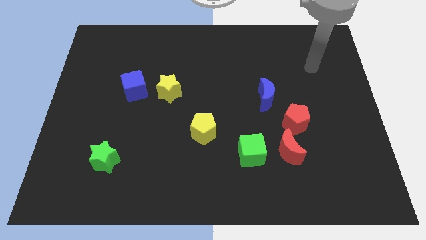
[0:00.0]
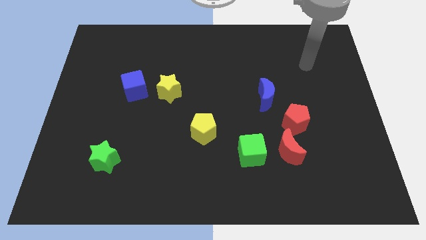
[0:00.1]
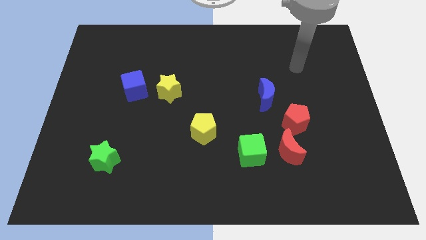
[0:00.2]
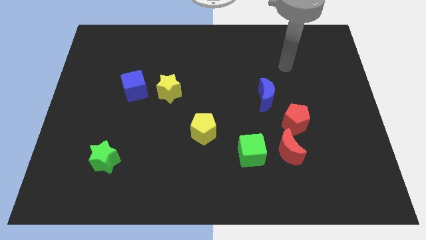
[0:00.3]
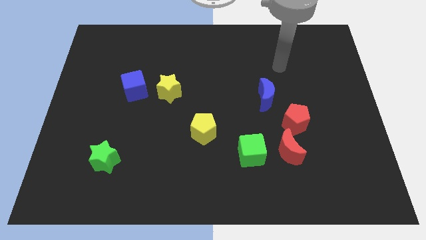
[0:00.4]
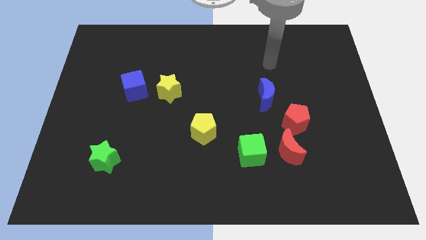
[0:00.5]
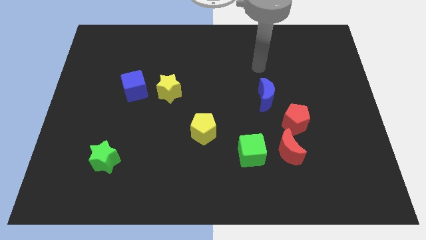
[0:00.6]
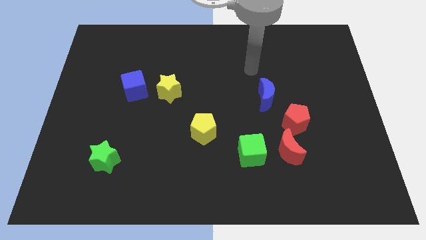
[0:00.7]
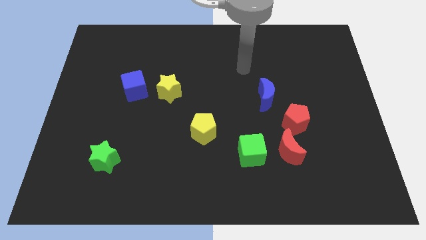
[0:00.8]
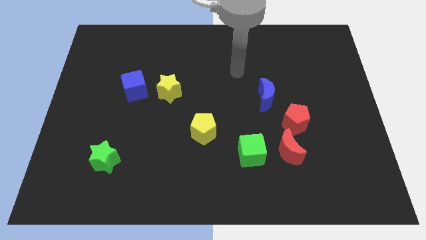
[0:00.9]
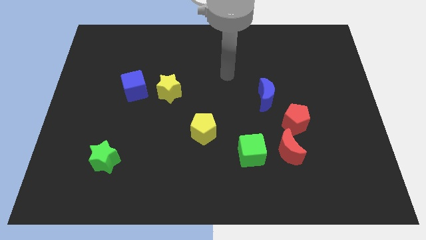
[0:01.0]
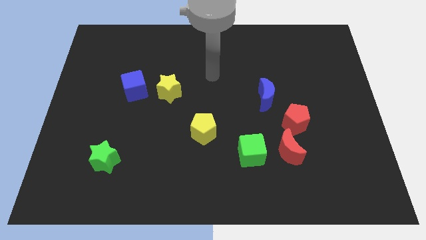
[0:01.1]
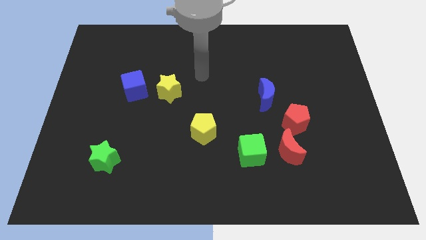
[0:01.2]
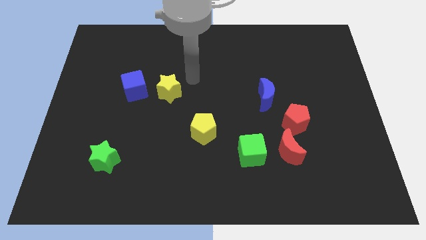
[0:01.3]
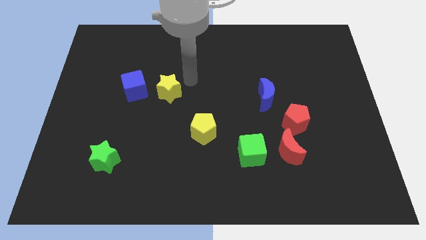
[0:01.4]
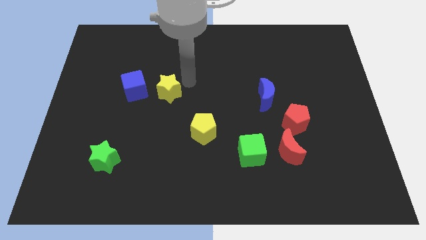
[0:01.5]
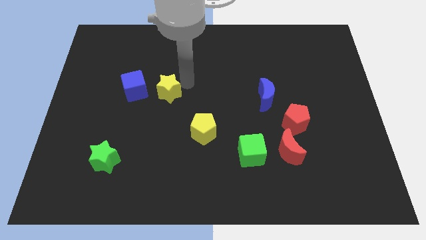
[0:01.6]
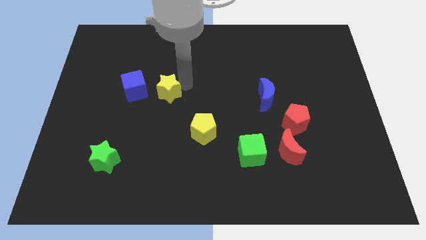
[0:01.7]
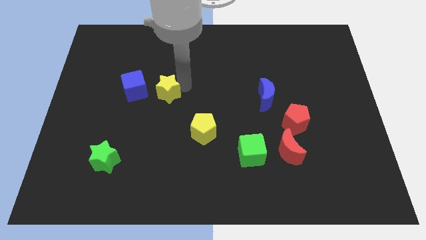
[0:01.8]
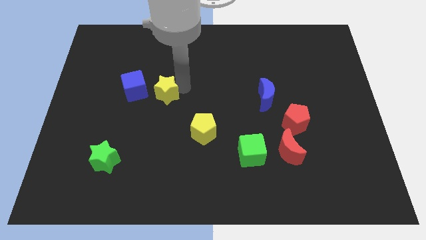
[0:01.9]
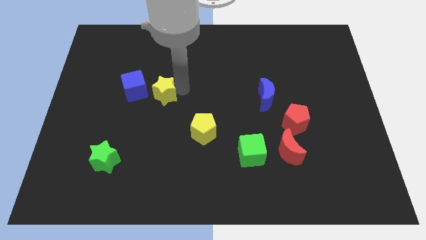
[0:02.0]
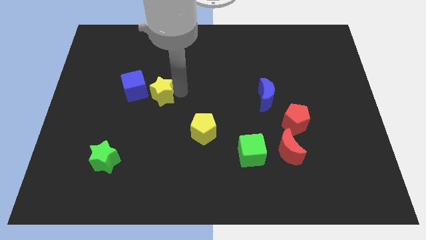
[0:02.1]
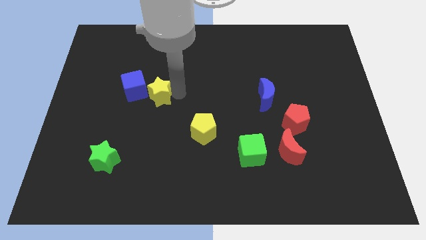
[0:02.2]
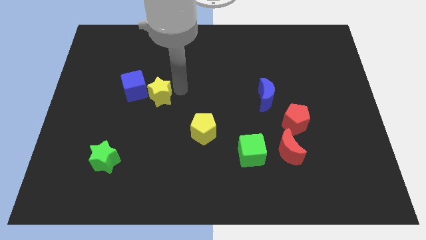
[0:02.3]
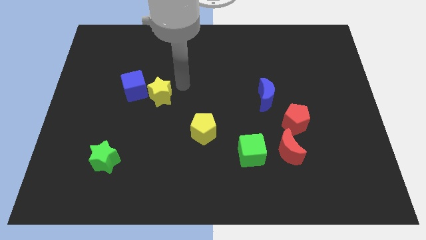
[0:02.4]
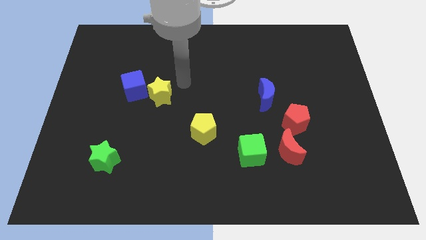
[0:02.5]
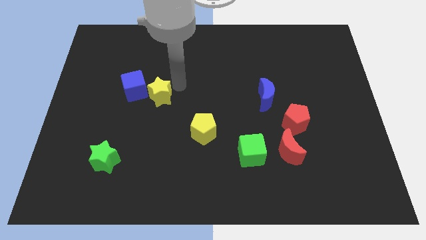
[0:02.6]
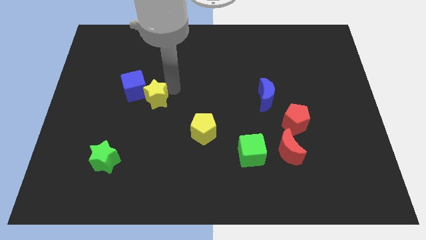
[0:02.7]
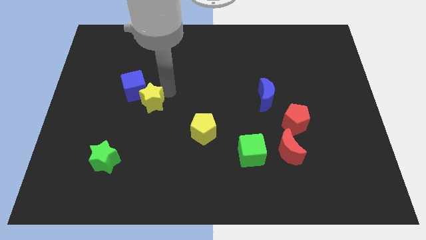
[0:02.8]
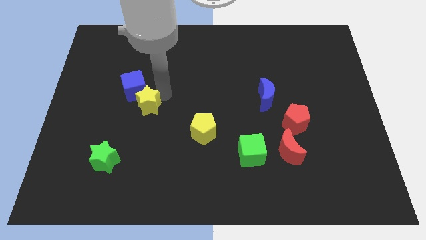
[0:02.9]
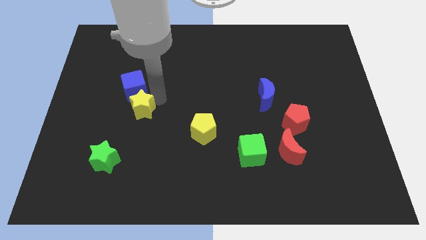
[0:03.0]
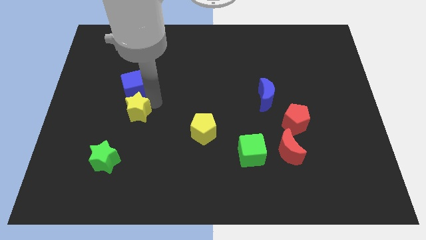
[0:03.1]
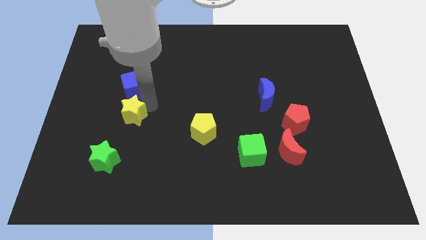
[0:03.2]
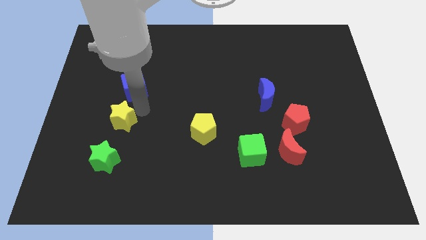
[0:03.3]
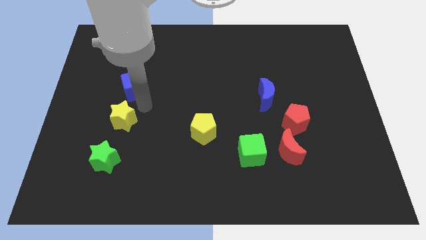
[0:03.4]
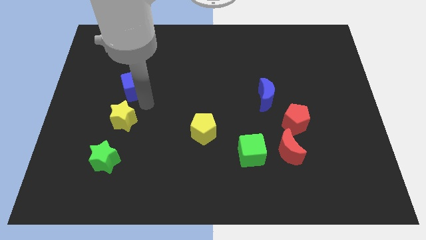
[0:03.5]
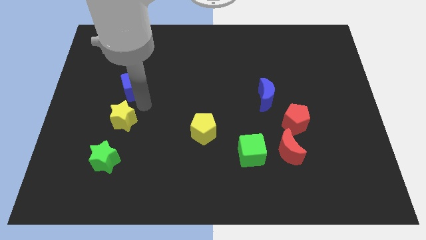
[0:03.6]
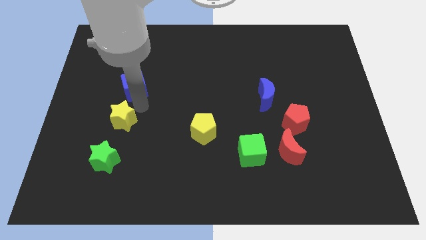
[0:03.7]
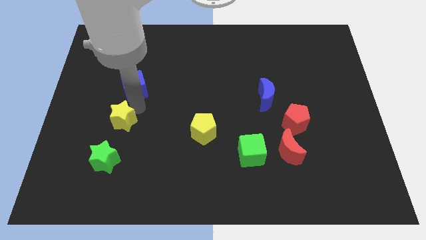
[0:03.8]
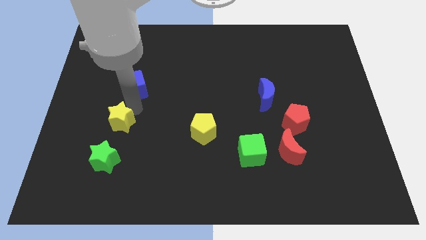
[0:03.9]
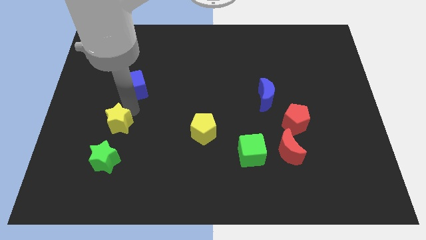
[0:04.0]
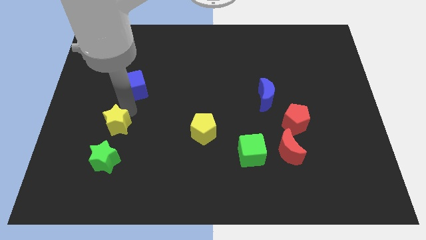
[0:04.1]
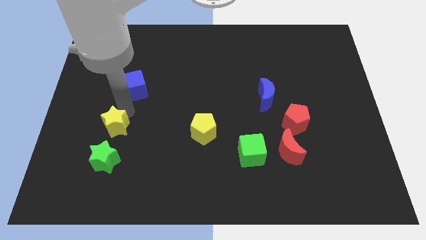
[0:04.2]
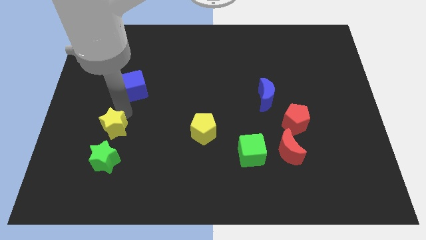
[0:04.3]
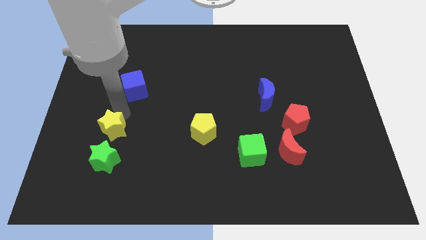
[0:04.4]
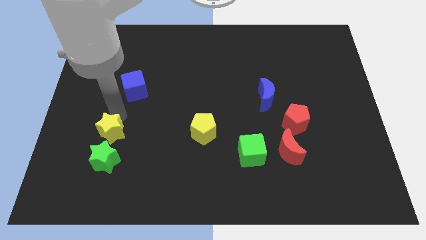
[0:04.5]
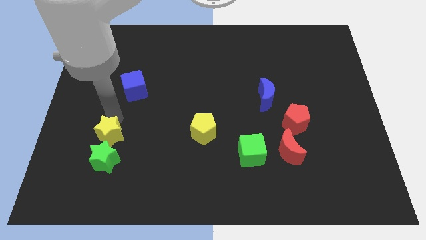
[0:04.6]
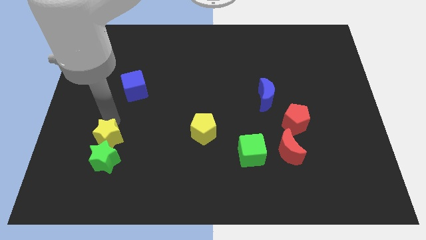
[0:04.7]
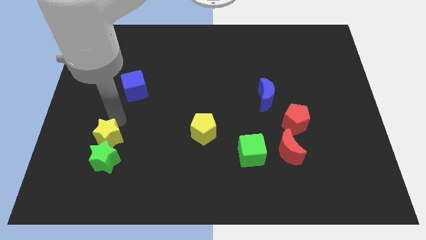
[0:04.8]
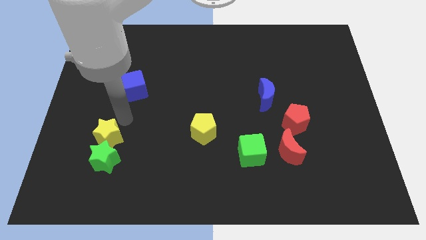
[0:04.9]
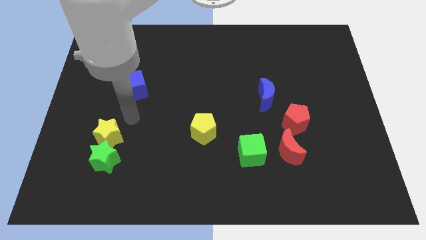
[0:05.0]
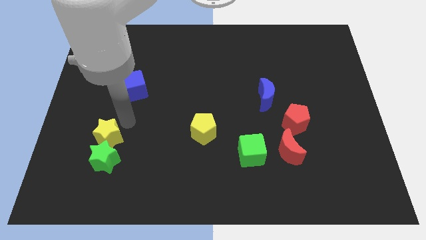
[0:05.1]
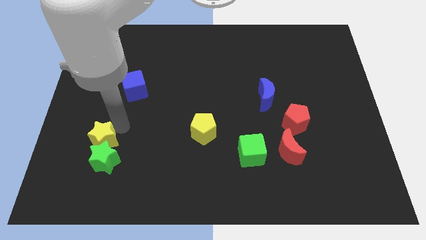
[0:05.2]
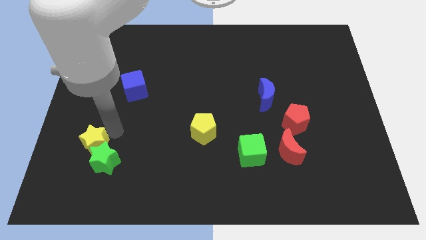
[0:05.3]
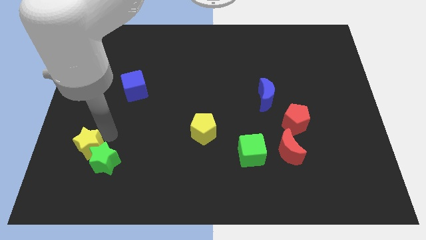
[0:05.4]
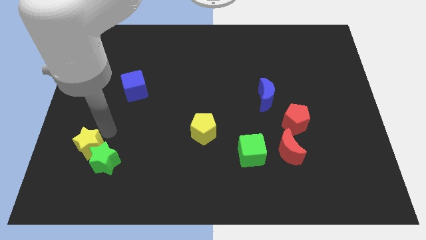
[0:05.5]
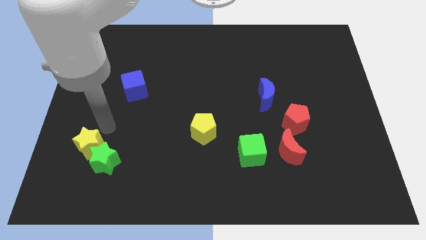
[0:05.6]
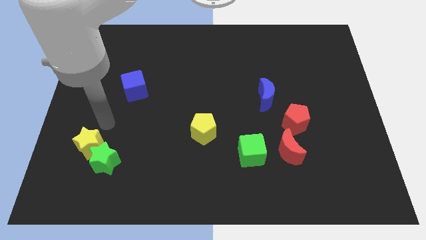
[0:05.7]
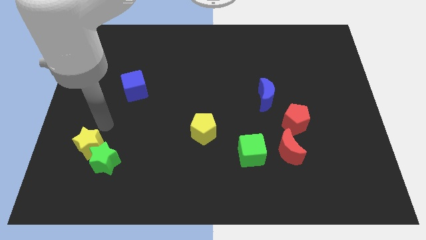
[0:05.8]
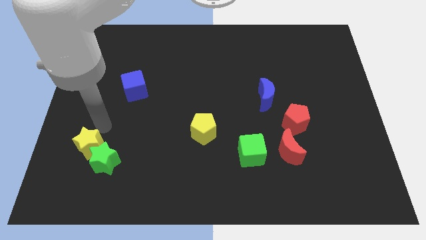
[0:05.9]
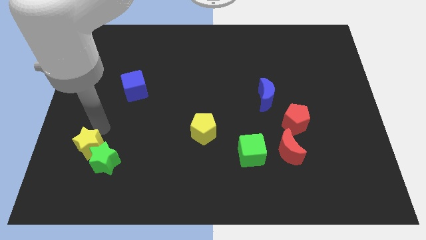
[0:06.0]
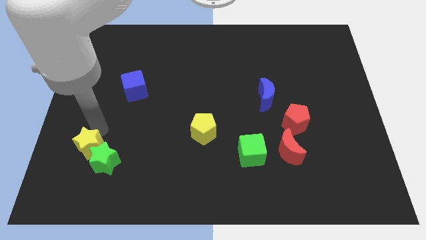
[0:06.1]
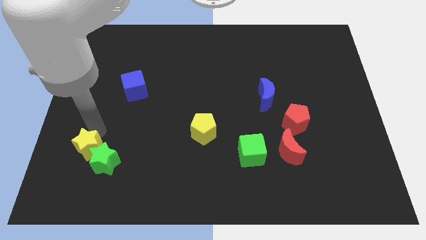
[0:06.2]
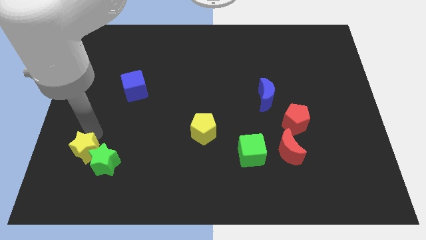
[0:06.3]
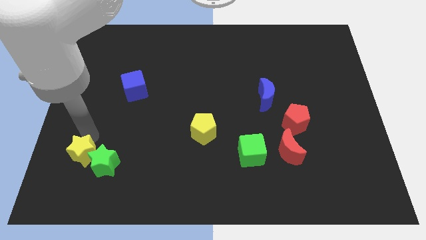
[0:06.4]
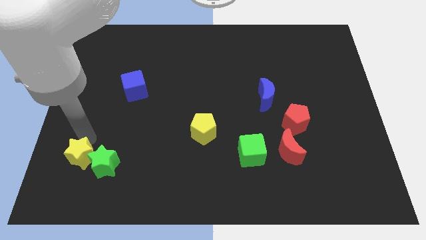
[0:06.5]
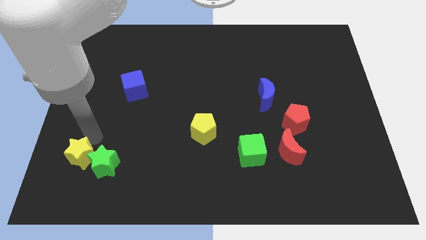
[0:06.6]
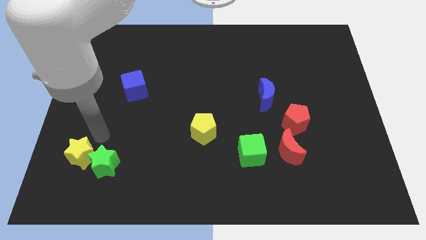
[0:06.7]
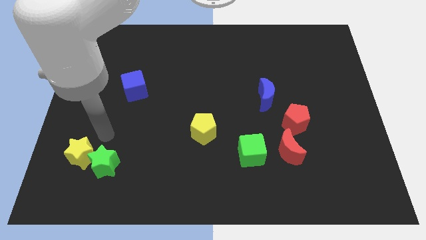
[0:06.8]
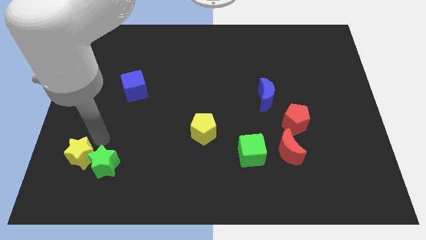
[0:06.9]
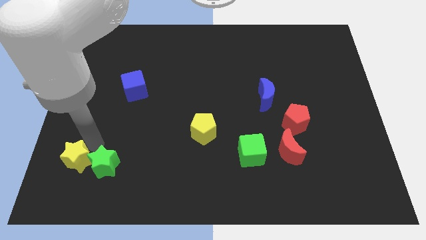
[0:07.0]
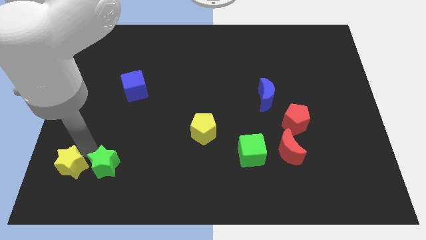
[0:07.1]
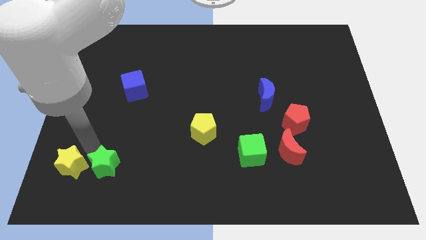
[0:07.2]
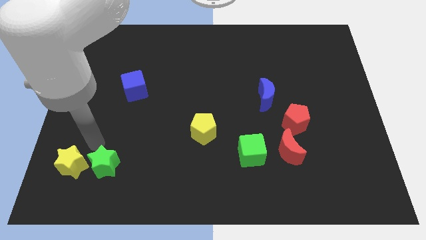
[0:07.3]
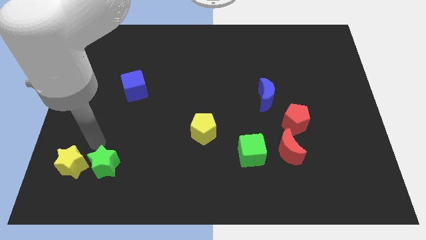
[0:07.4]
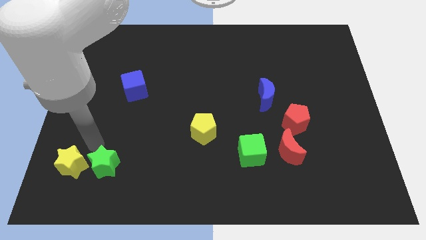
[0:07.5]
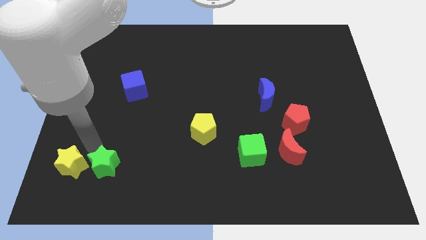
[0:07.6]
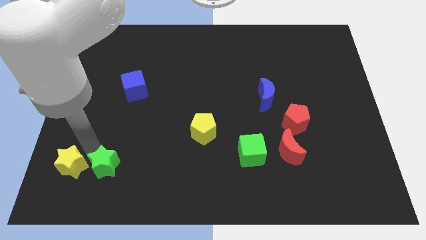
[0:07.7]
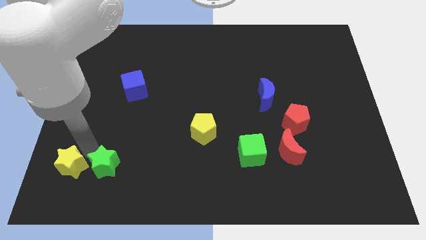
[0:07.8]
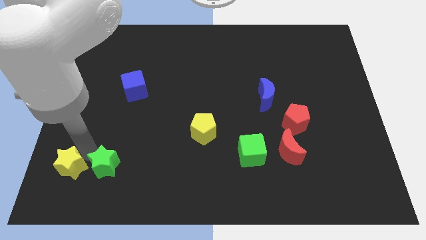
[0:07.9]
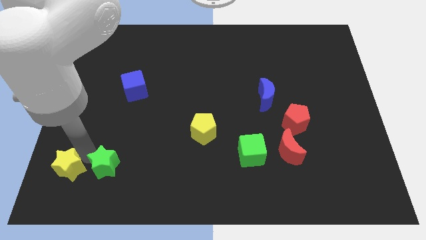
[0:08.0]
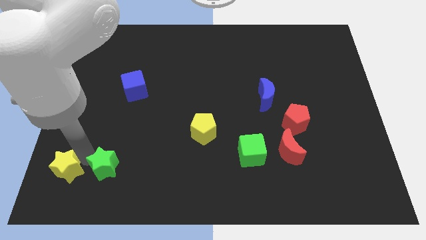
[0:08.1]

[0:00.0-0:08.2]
push the yellow star to the lower left corner
